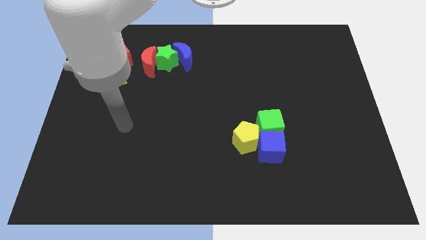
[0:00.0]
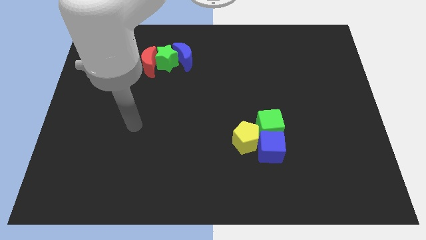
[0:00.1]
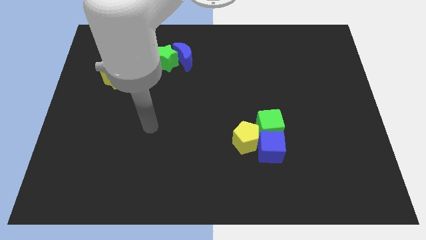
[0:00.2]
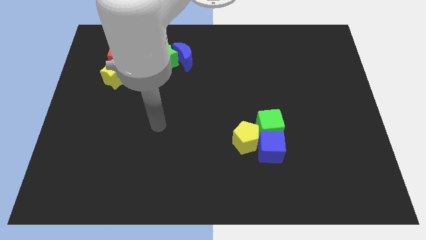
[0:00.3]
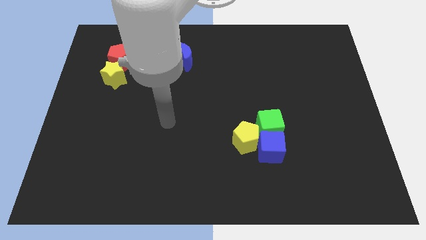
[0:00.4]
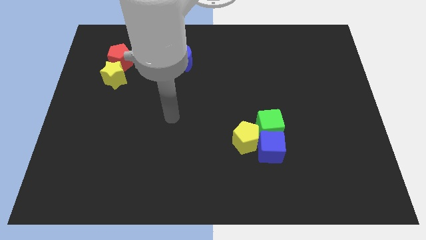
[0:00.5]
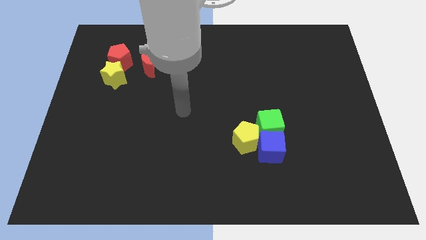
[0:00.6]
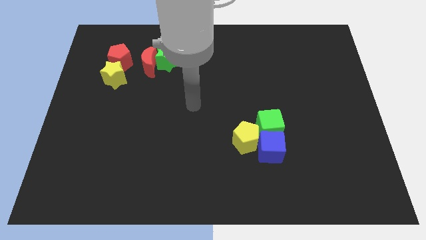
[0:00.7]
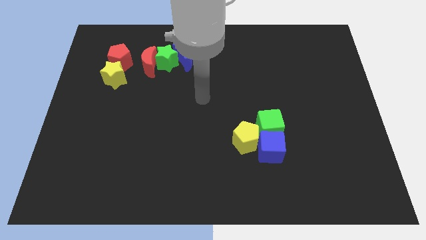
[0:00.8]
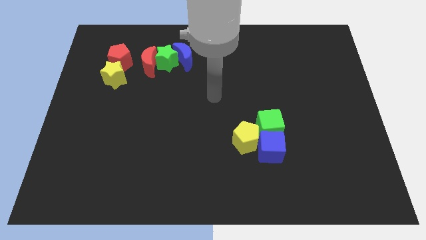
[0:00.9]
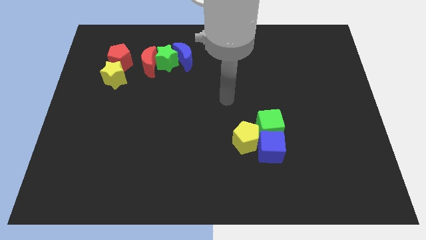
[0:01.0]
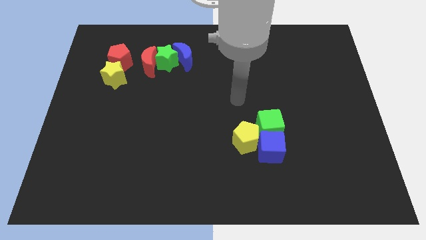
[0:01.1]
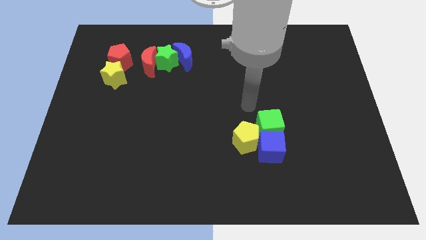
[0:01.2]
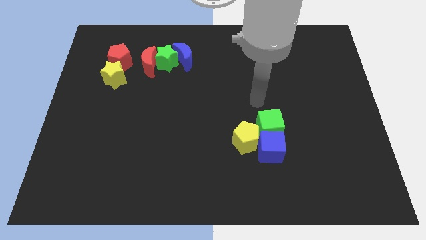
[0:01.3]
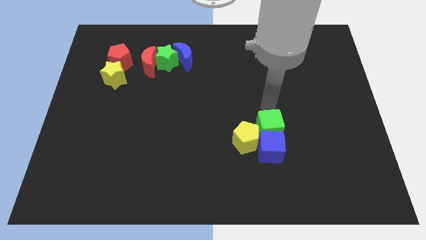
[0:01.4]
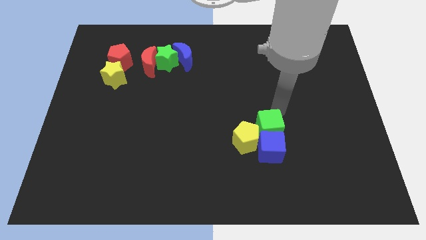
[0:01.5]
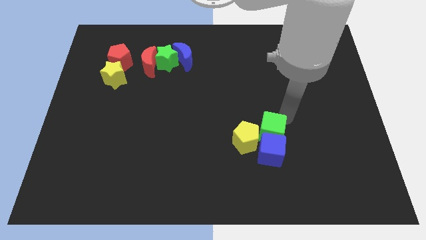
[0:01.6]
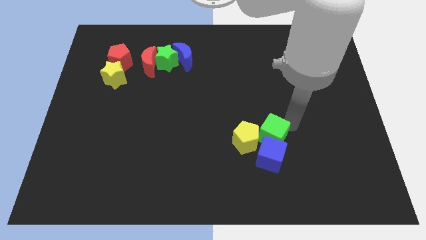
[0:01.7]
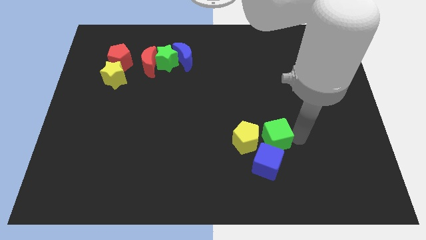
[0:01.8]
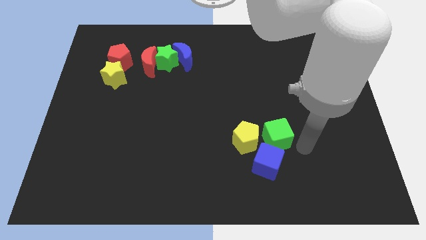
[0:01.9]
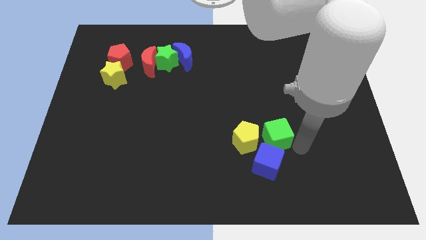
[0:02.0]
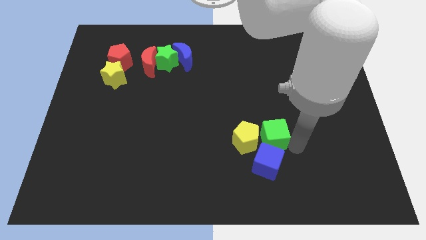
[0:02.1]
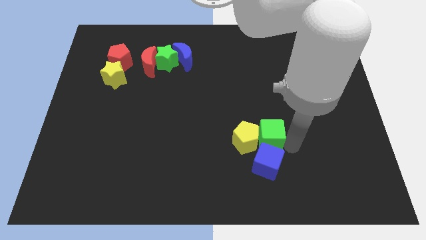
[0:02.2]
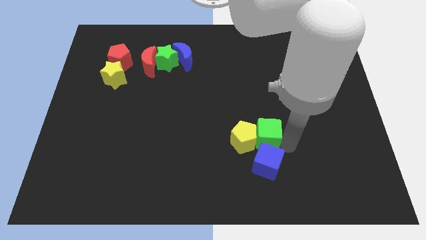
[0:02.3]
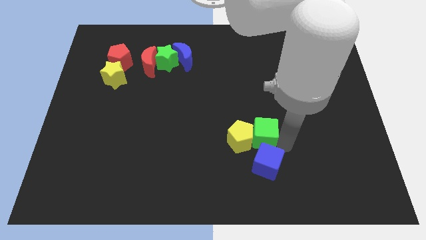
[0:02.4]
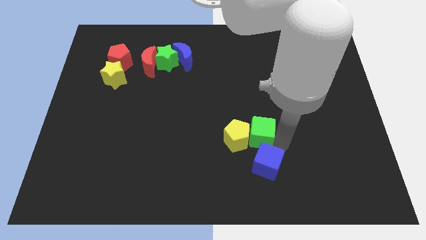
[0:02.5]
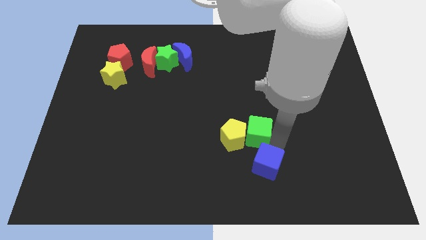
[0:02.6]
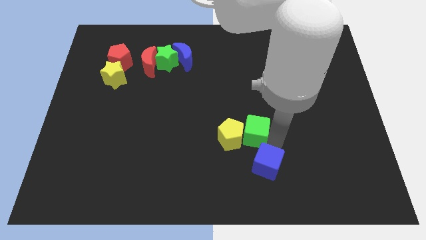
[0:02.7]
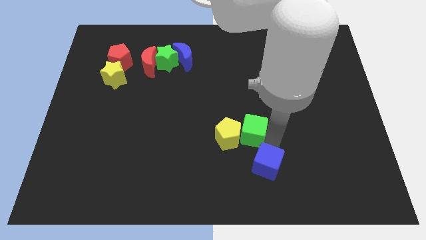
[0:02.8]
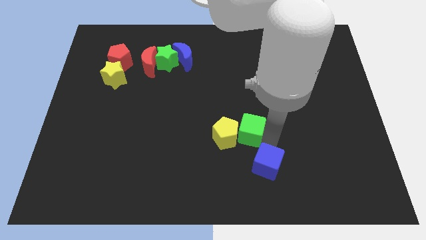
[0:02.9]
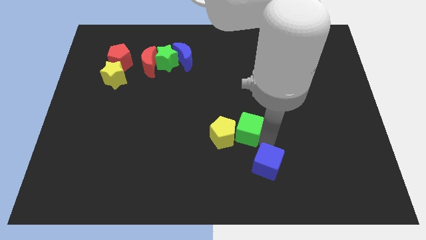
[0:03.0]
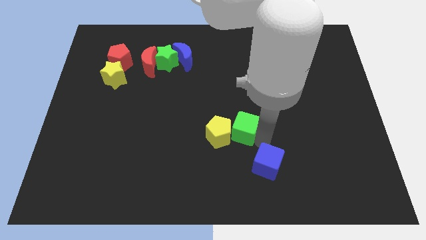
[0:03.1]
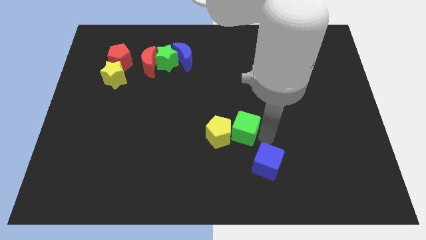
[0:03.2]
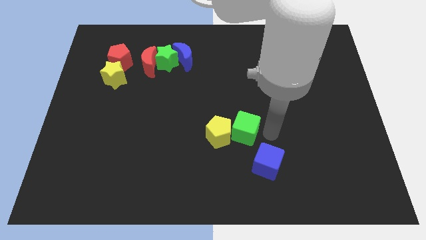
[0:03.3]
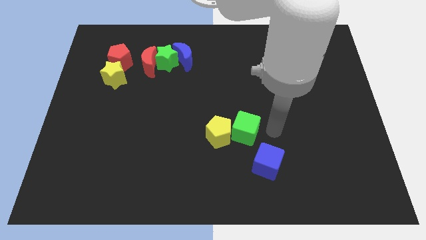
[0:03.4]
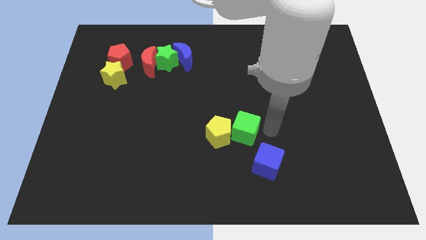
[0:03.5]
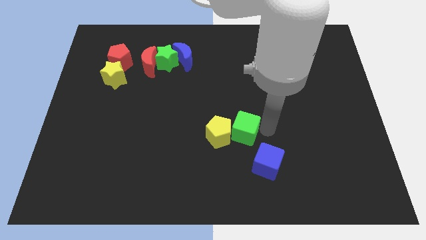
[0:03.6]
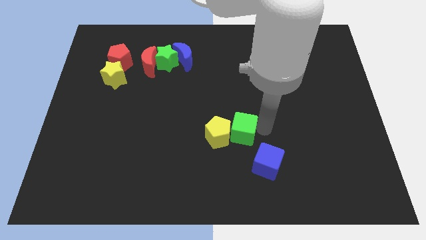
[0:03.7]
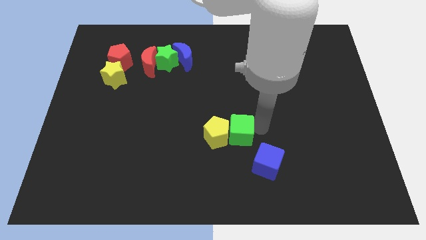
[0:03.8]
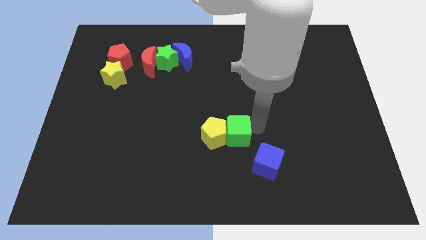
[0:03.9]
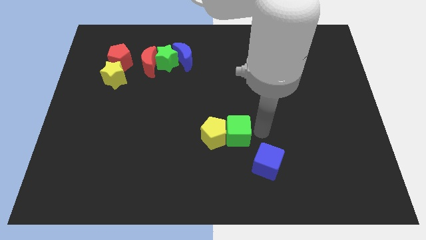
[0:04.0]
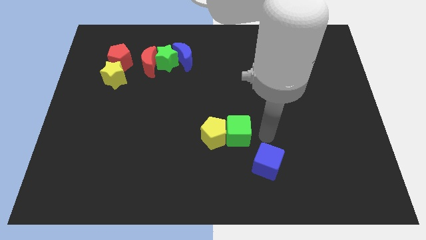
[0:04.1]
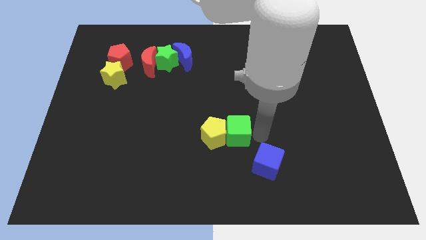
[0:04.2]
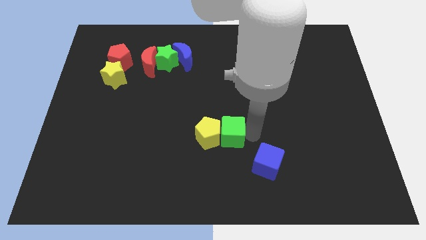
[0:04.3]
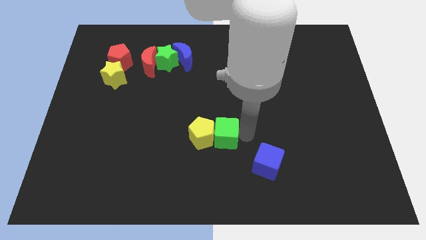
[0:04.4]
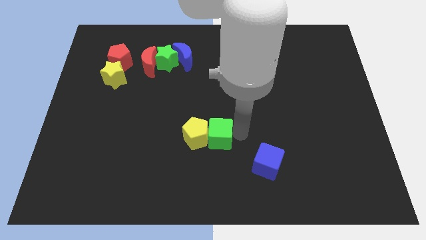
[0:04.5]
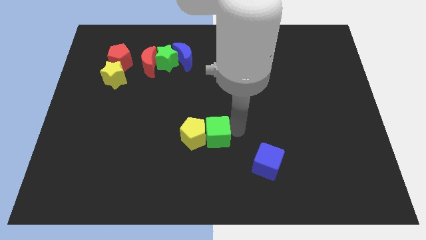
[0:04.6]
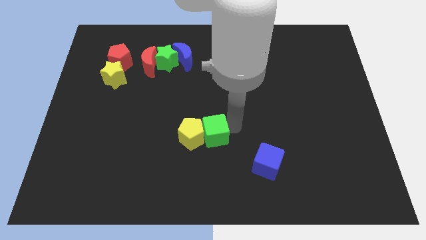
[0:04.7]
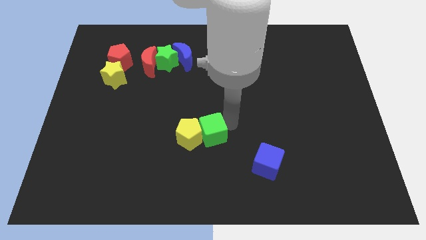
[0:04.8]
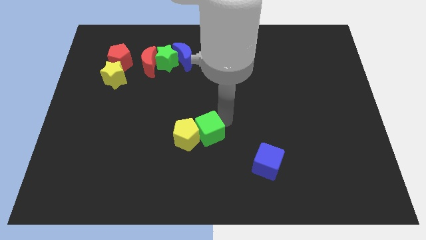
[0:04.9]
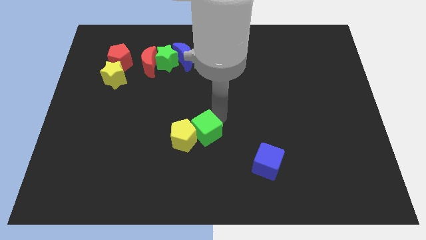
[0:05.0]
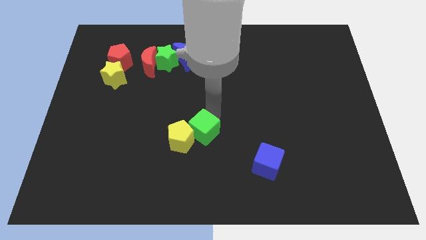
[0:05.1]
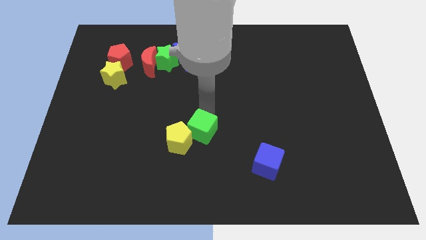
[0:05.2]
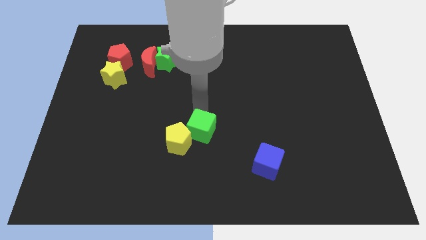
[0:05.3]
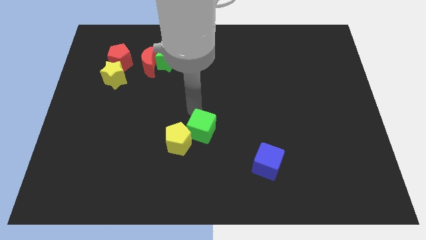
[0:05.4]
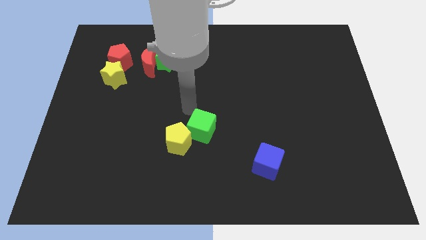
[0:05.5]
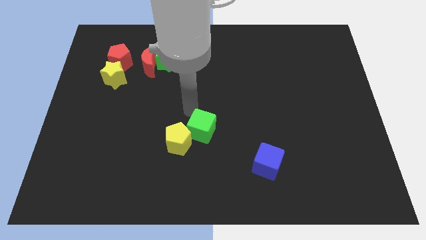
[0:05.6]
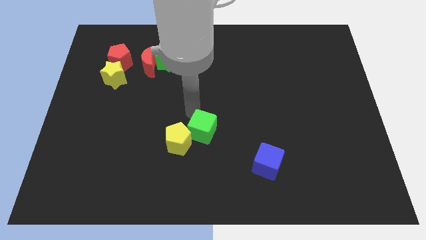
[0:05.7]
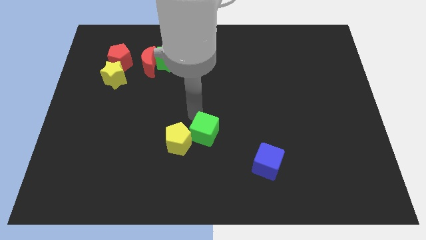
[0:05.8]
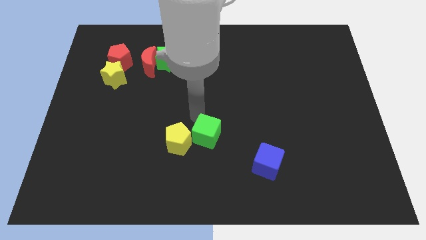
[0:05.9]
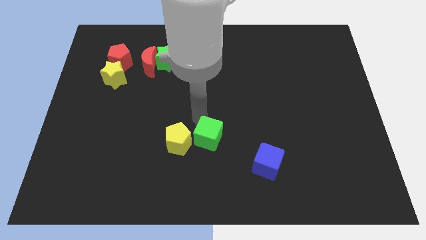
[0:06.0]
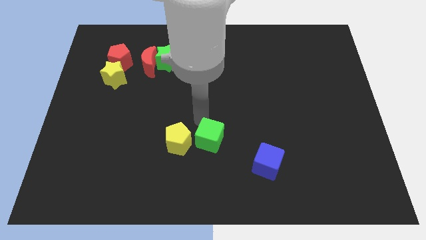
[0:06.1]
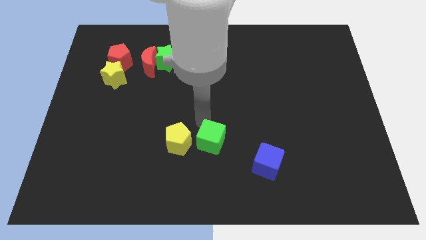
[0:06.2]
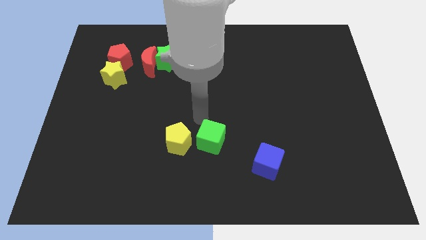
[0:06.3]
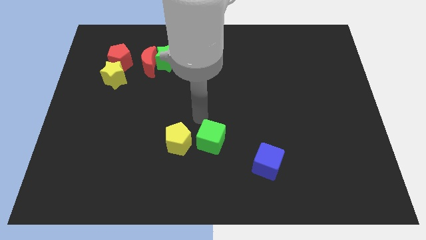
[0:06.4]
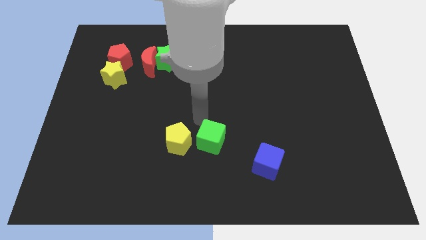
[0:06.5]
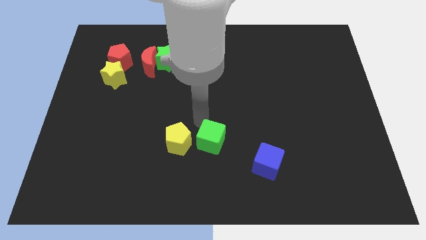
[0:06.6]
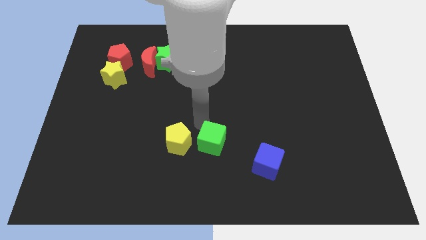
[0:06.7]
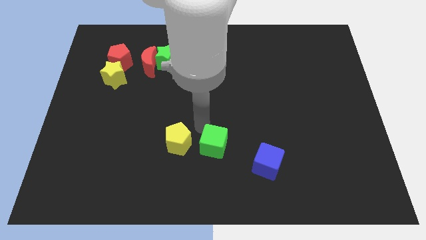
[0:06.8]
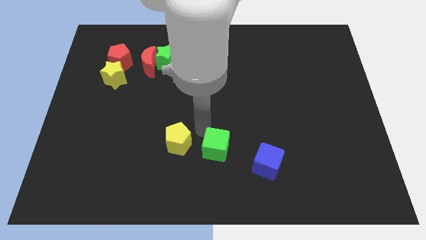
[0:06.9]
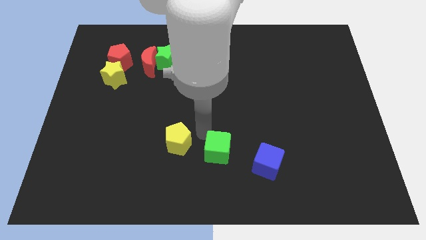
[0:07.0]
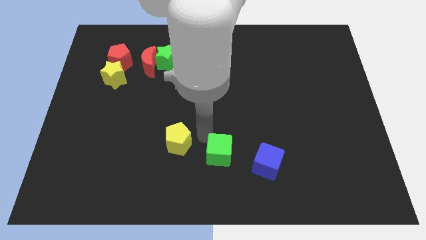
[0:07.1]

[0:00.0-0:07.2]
move the green cube to the bottom side

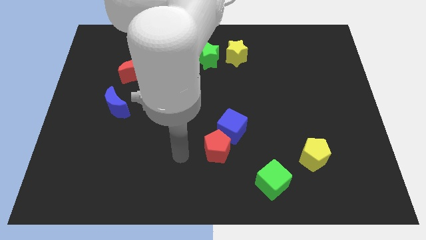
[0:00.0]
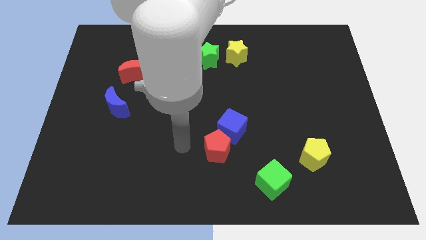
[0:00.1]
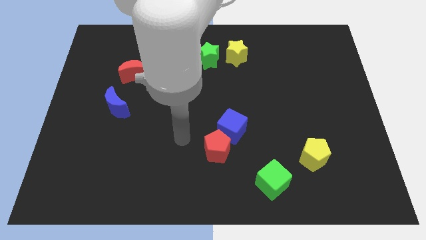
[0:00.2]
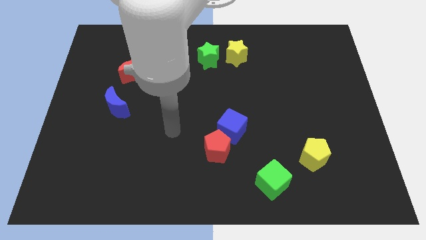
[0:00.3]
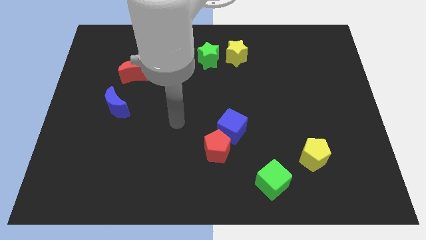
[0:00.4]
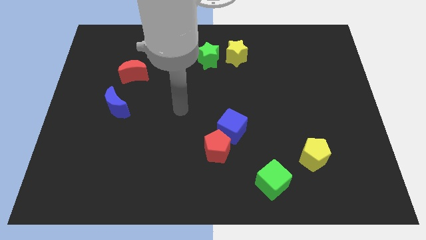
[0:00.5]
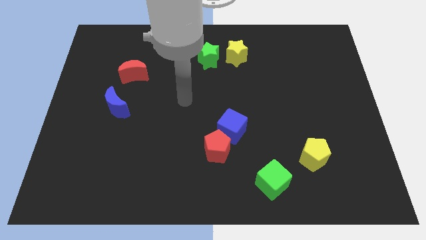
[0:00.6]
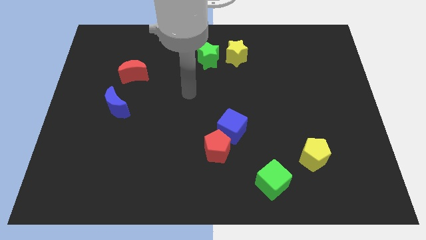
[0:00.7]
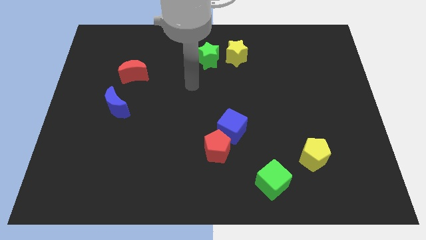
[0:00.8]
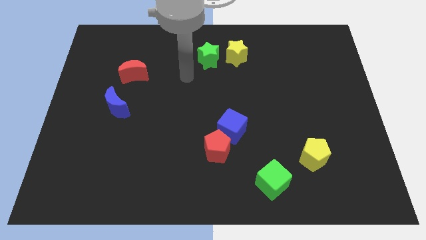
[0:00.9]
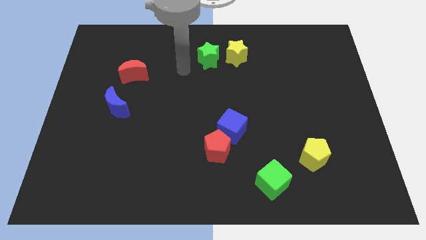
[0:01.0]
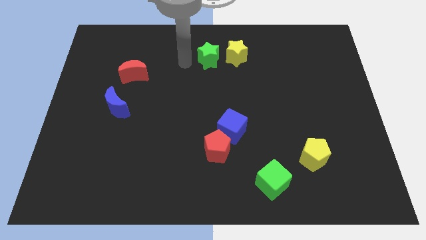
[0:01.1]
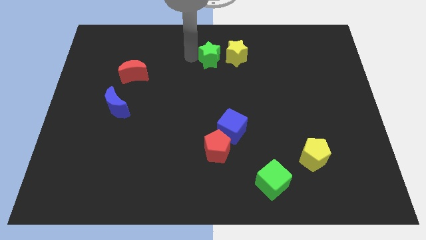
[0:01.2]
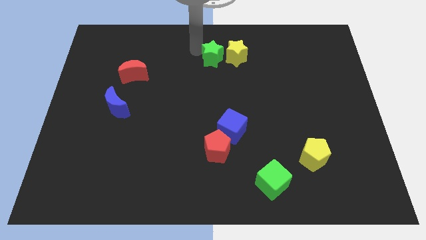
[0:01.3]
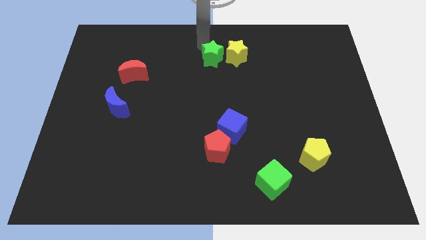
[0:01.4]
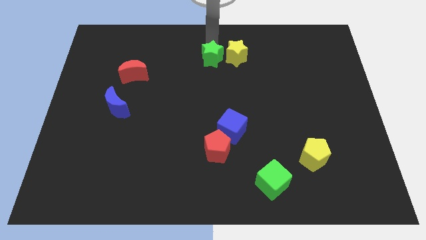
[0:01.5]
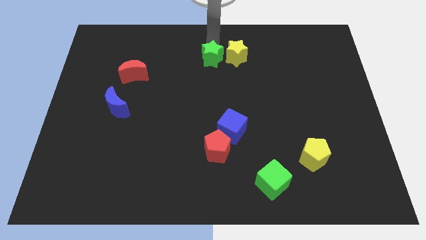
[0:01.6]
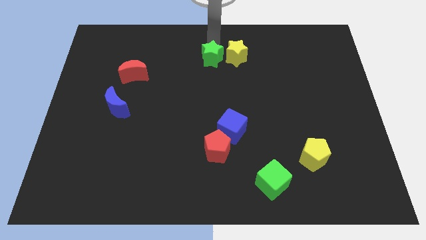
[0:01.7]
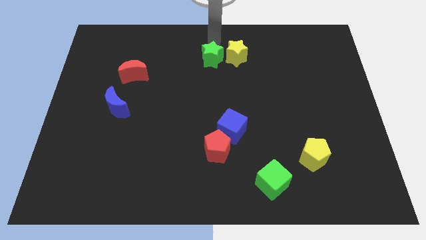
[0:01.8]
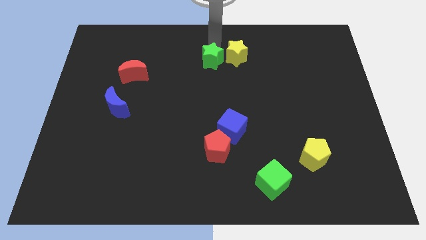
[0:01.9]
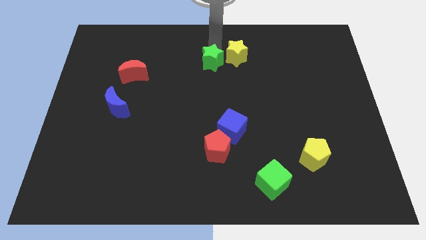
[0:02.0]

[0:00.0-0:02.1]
slide the green star to the center
